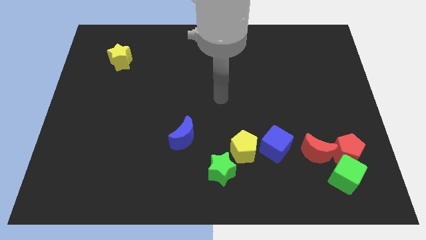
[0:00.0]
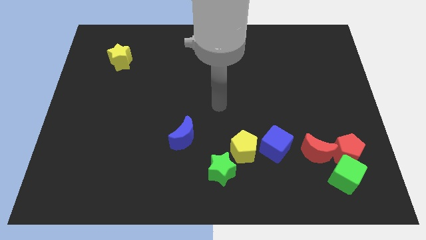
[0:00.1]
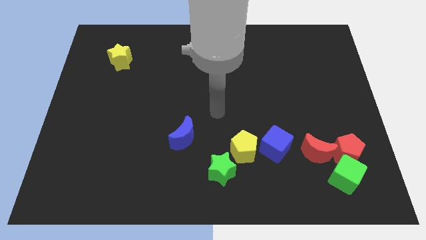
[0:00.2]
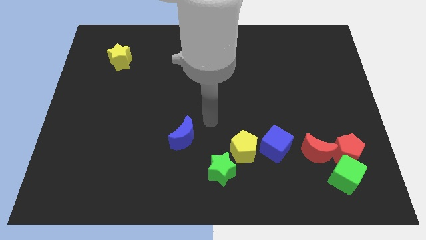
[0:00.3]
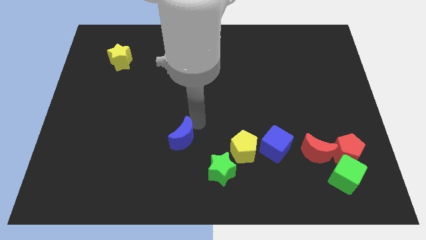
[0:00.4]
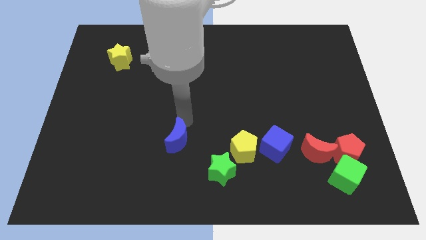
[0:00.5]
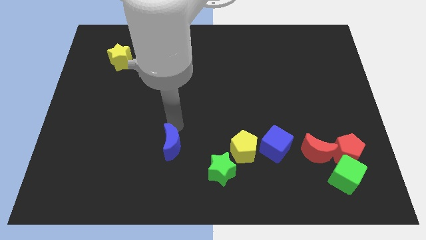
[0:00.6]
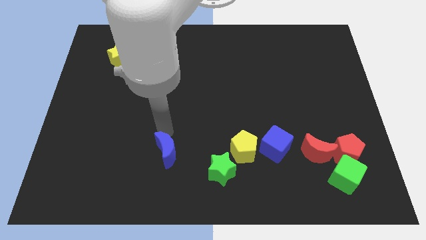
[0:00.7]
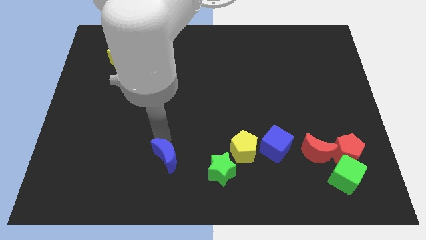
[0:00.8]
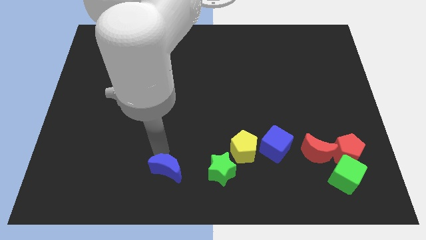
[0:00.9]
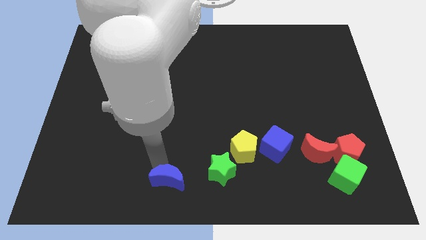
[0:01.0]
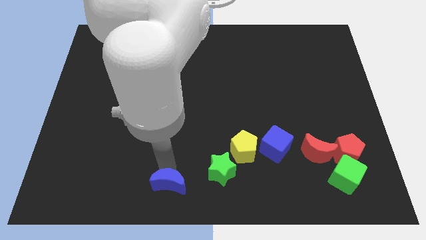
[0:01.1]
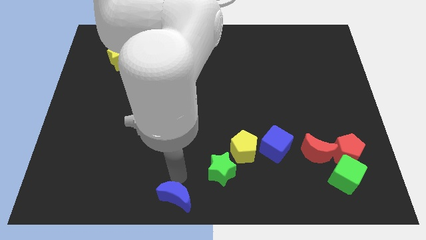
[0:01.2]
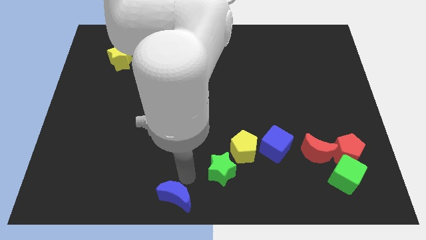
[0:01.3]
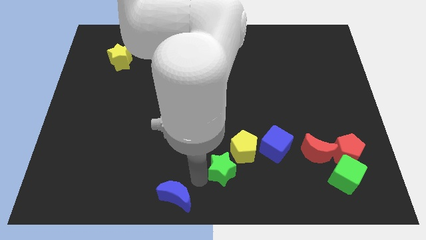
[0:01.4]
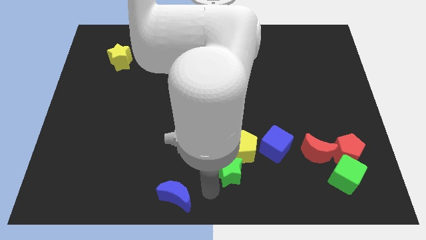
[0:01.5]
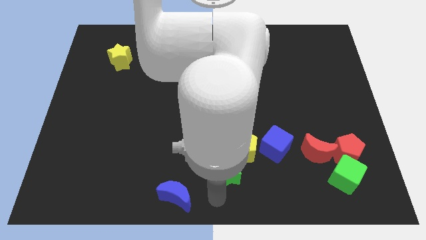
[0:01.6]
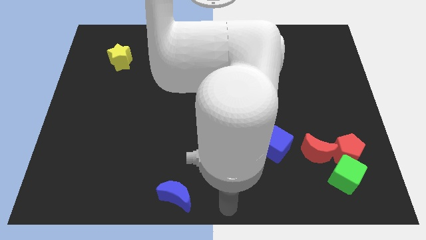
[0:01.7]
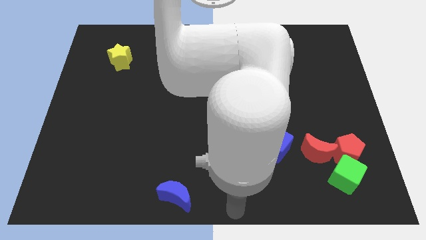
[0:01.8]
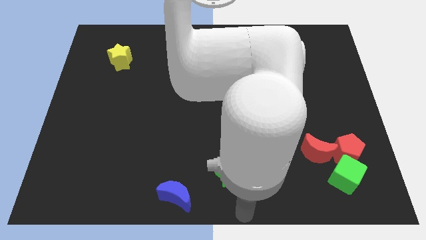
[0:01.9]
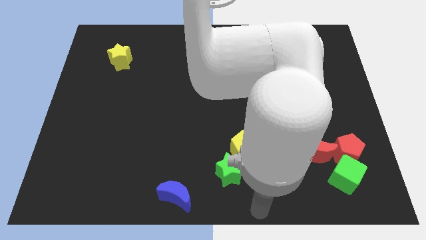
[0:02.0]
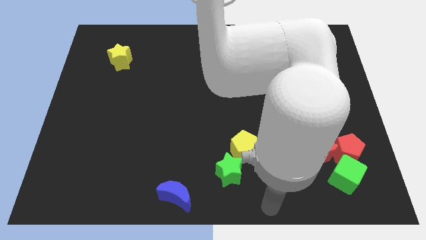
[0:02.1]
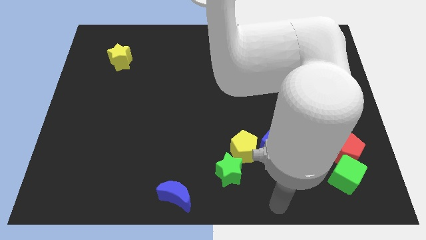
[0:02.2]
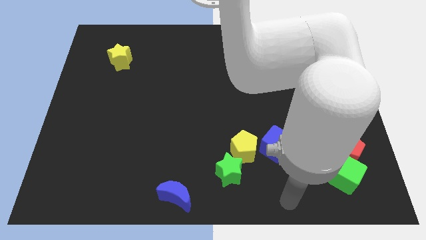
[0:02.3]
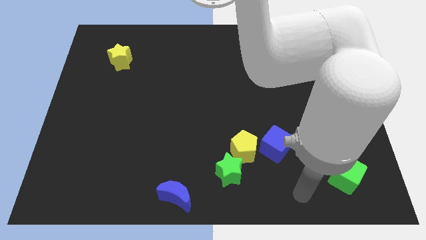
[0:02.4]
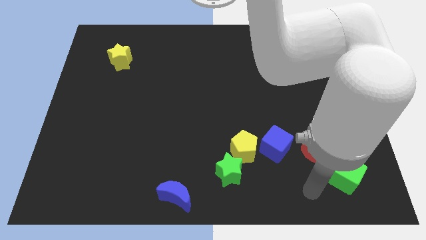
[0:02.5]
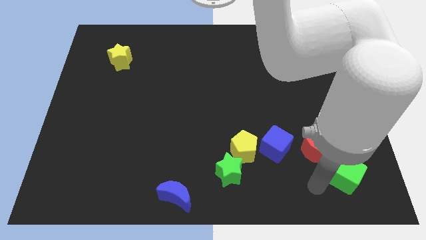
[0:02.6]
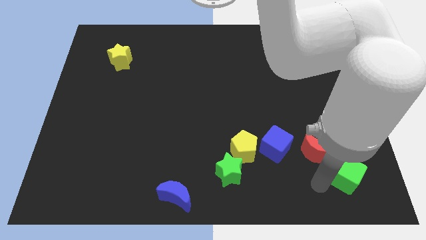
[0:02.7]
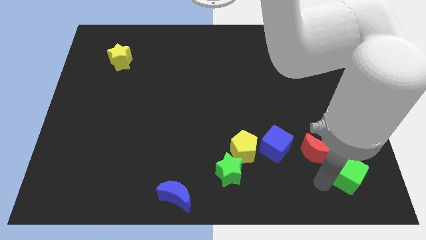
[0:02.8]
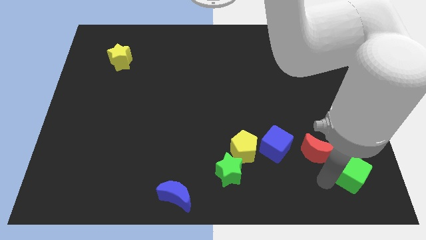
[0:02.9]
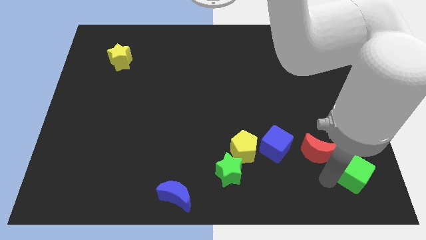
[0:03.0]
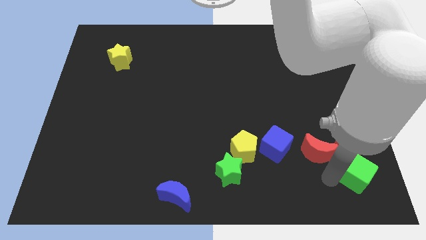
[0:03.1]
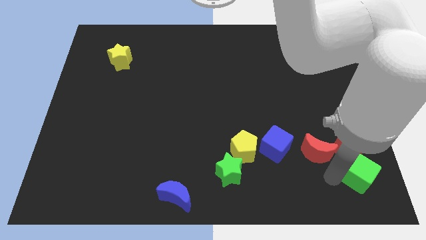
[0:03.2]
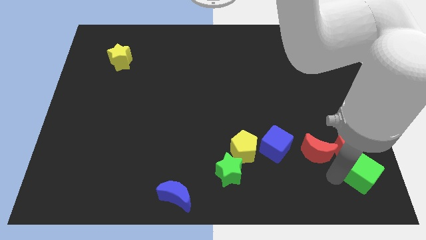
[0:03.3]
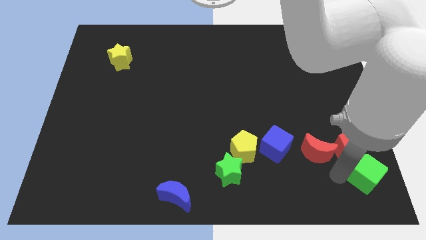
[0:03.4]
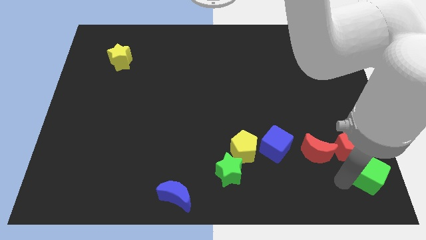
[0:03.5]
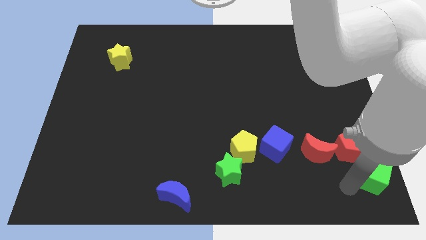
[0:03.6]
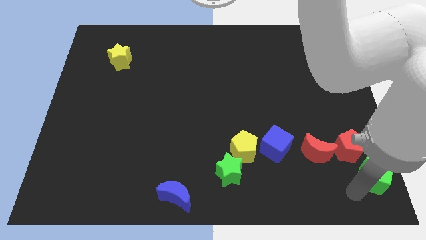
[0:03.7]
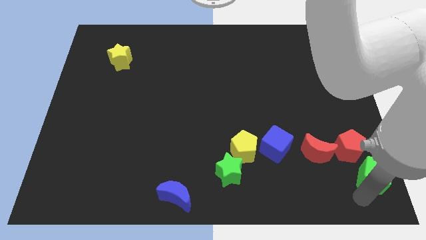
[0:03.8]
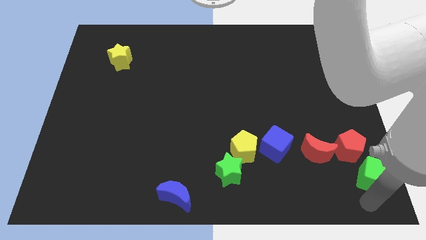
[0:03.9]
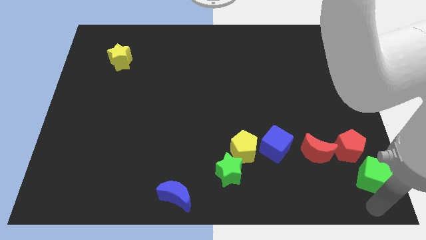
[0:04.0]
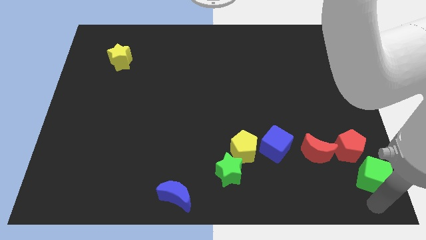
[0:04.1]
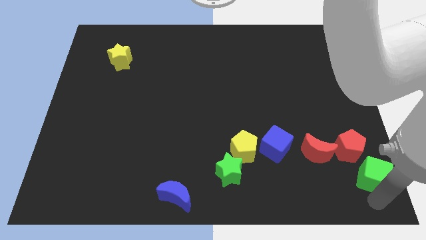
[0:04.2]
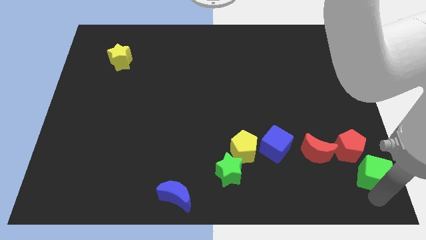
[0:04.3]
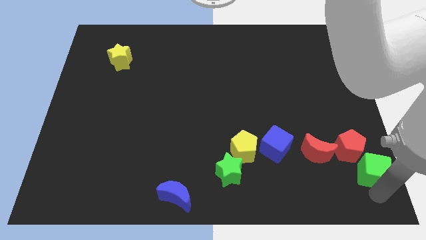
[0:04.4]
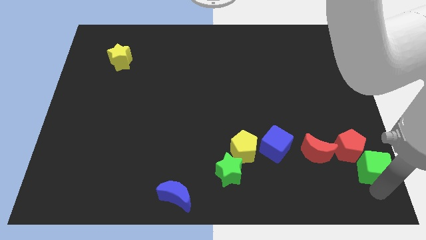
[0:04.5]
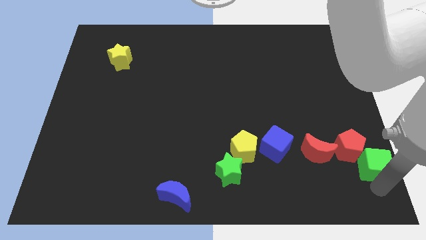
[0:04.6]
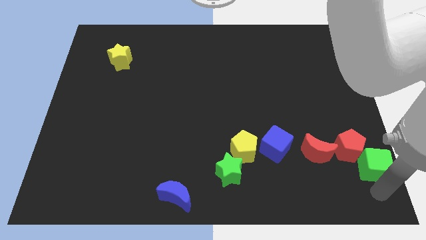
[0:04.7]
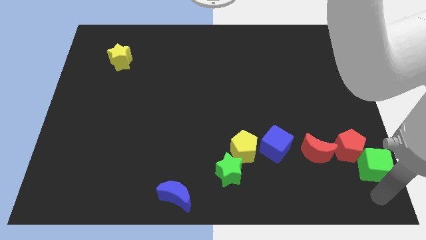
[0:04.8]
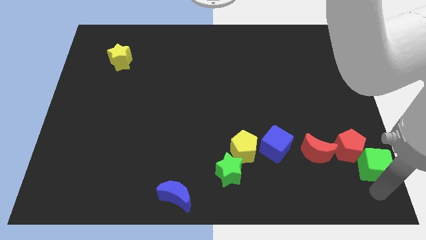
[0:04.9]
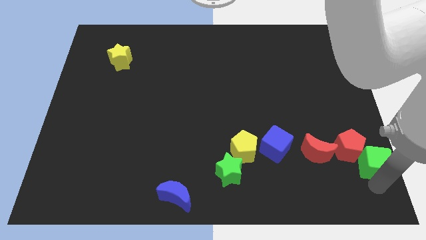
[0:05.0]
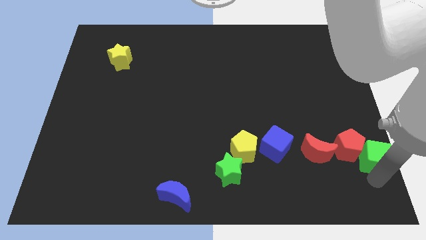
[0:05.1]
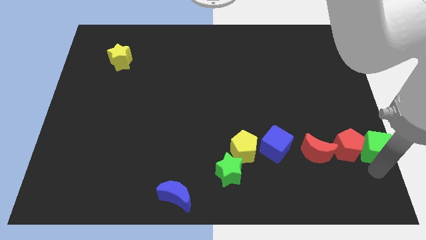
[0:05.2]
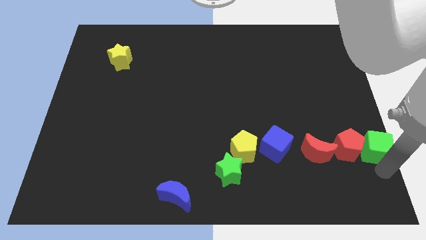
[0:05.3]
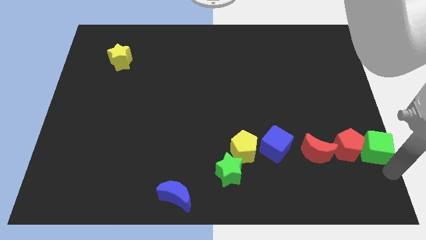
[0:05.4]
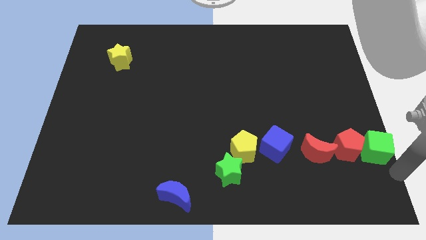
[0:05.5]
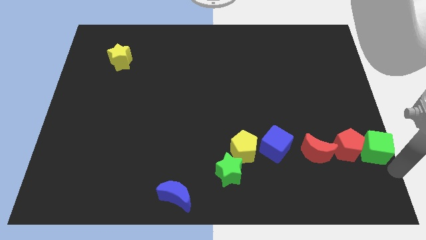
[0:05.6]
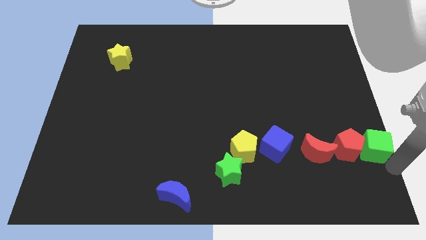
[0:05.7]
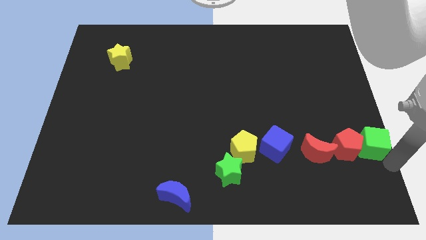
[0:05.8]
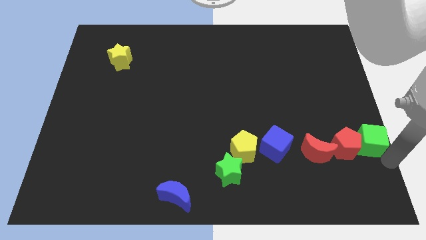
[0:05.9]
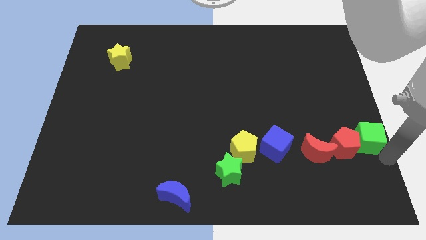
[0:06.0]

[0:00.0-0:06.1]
slightly slide the green cube up

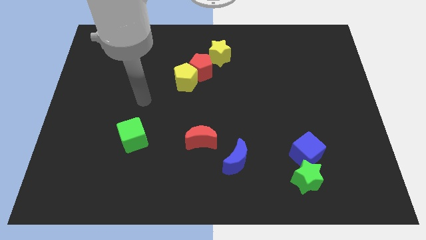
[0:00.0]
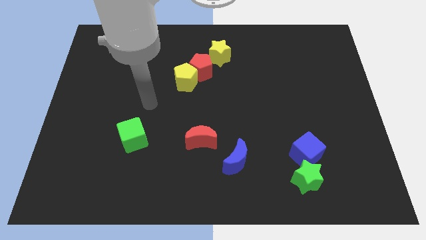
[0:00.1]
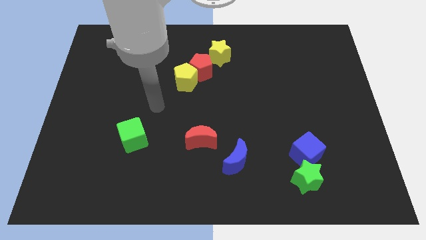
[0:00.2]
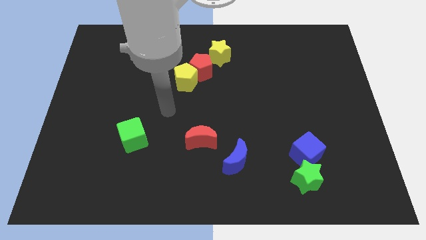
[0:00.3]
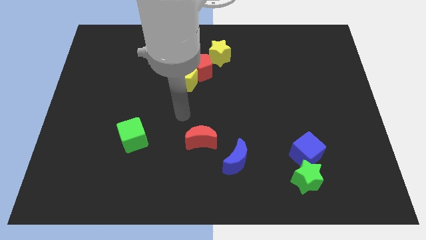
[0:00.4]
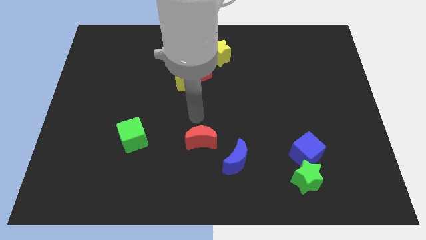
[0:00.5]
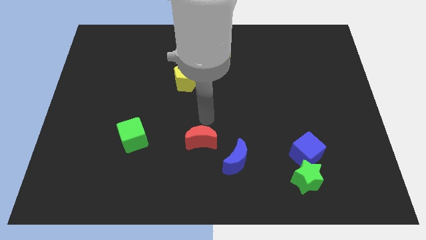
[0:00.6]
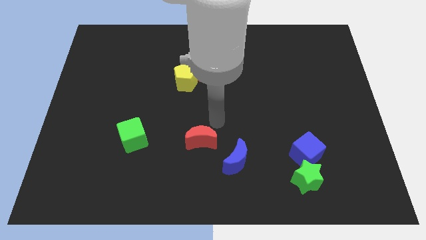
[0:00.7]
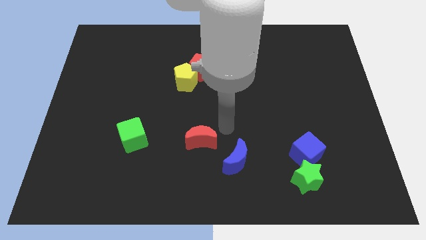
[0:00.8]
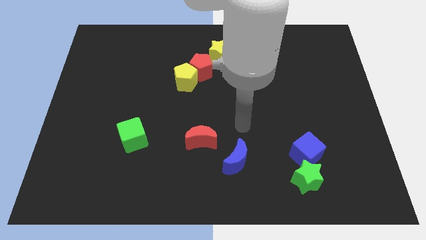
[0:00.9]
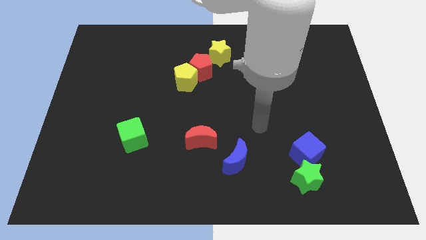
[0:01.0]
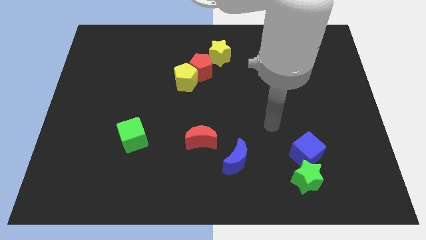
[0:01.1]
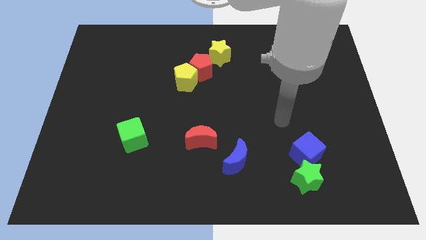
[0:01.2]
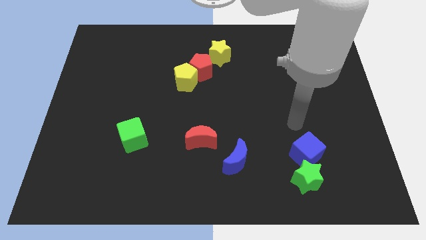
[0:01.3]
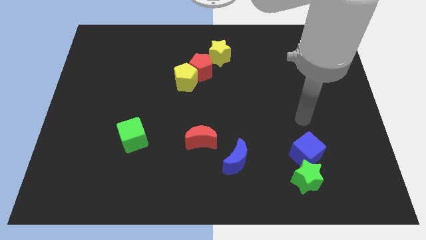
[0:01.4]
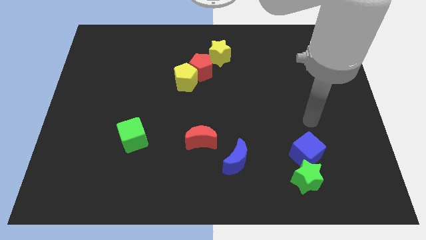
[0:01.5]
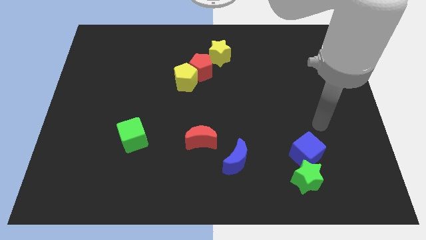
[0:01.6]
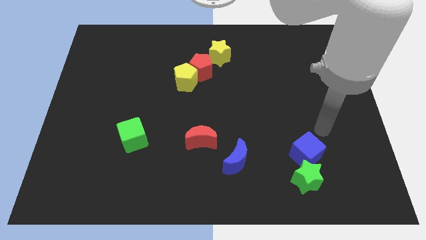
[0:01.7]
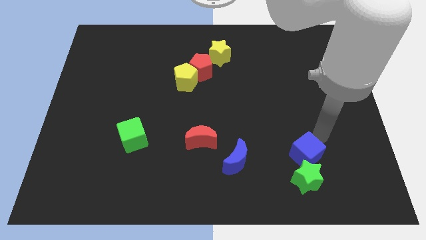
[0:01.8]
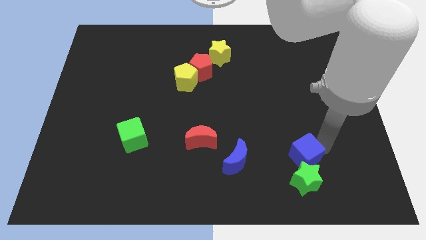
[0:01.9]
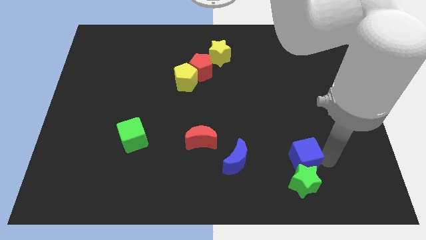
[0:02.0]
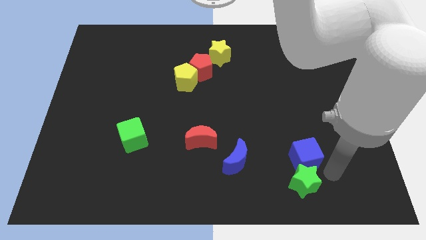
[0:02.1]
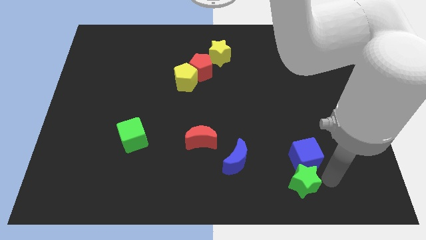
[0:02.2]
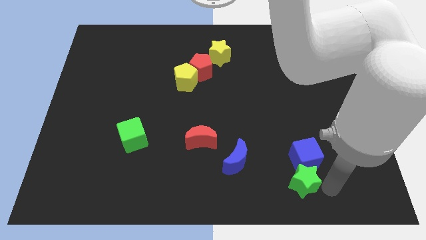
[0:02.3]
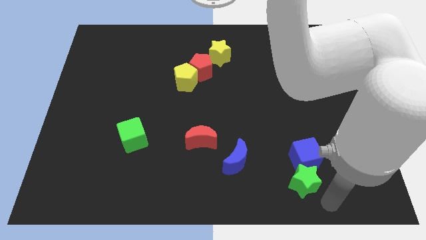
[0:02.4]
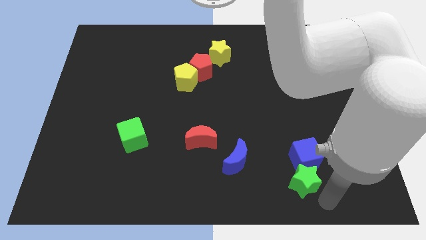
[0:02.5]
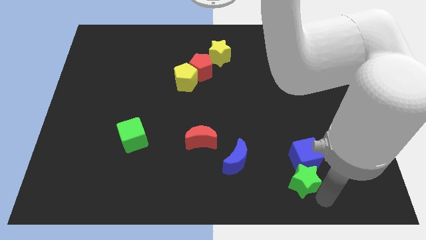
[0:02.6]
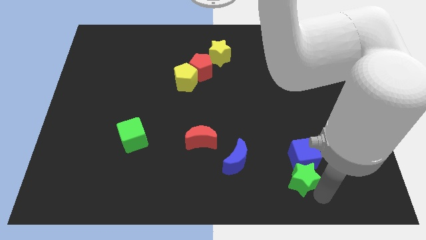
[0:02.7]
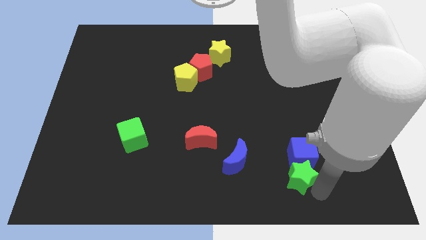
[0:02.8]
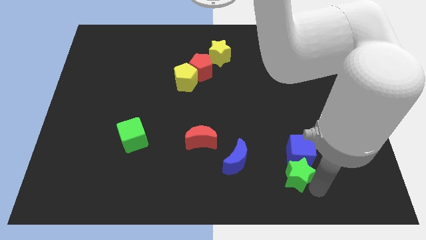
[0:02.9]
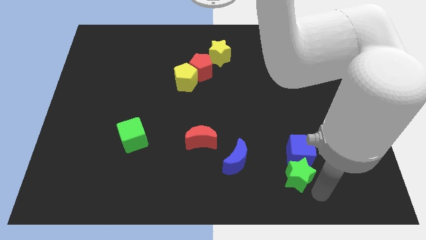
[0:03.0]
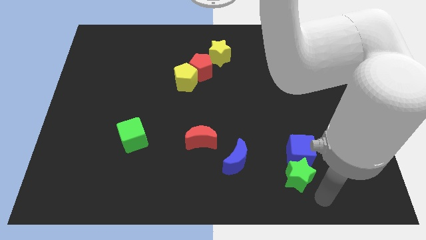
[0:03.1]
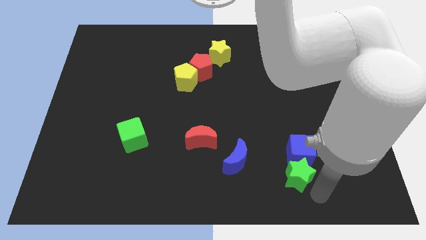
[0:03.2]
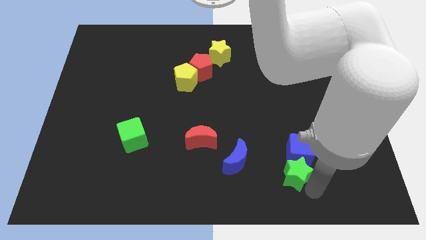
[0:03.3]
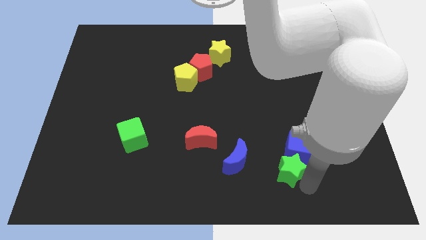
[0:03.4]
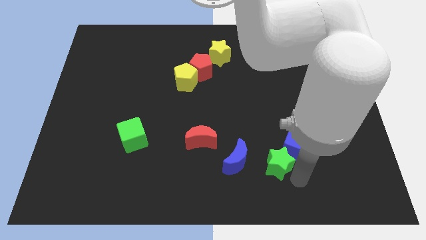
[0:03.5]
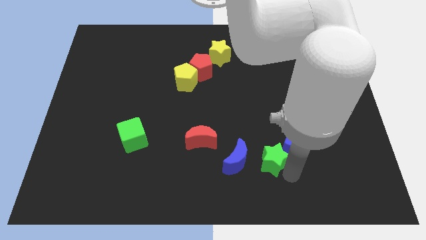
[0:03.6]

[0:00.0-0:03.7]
push the green star a bit upwards and to the left
